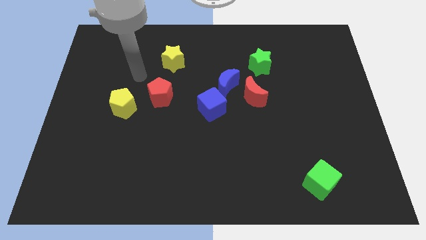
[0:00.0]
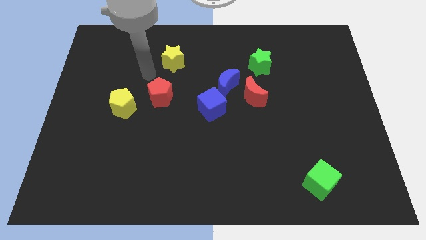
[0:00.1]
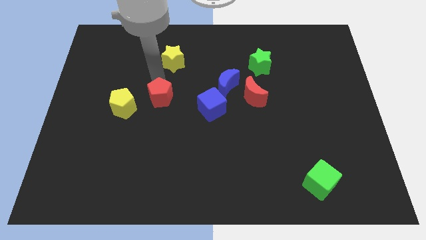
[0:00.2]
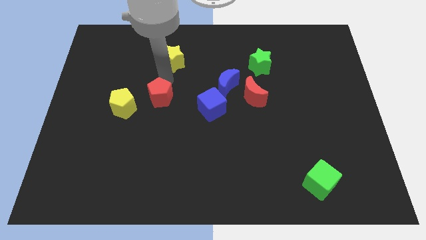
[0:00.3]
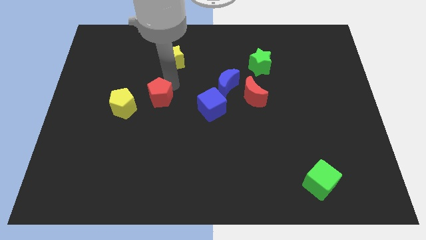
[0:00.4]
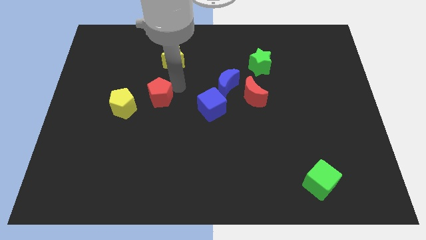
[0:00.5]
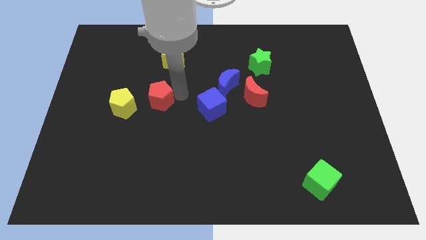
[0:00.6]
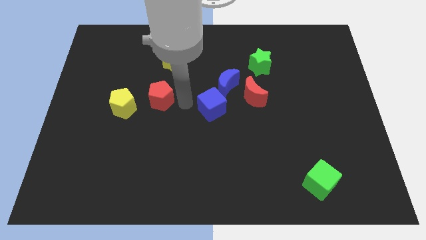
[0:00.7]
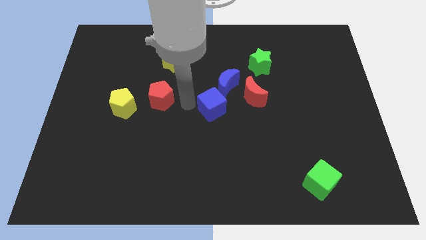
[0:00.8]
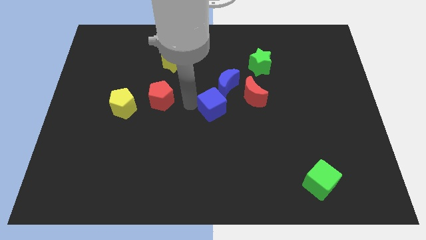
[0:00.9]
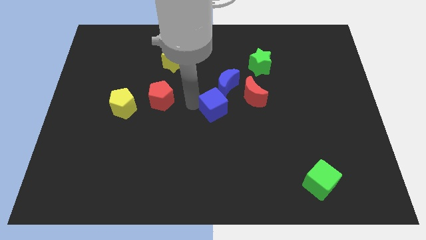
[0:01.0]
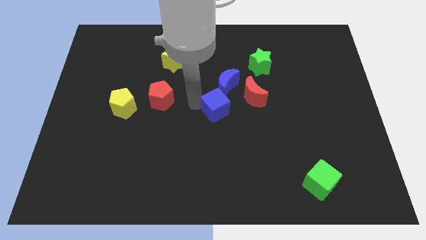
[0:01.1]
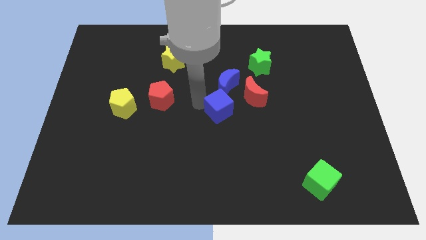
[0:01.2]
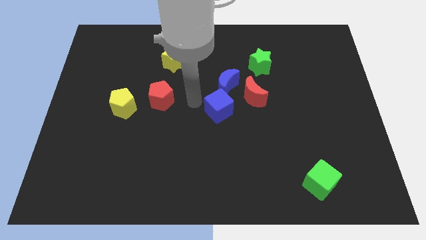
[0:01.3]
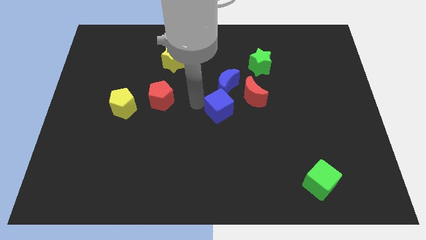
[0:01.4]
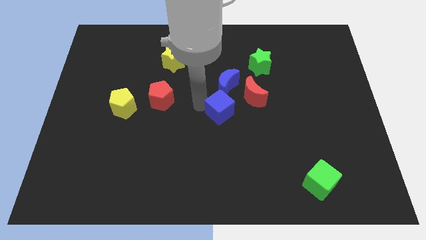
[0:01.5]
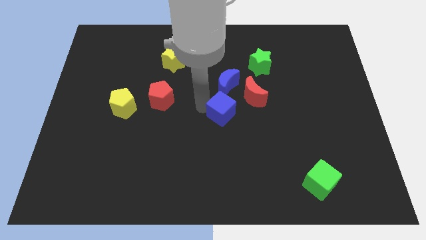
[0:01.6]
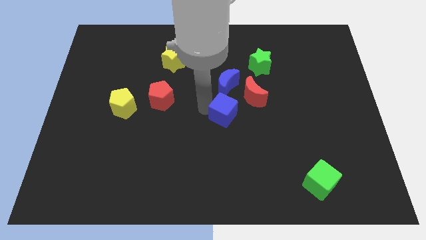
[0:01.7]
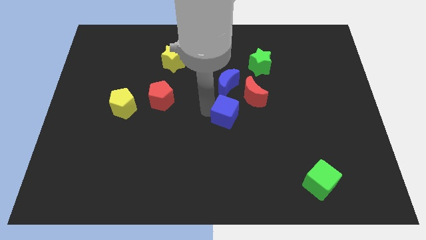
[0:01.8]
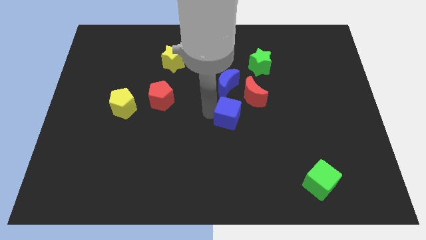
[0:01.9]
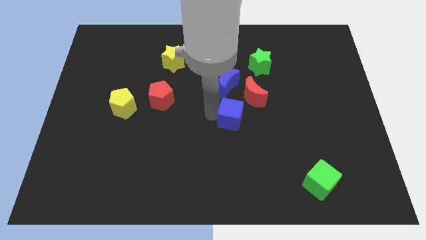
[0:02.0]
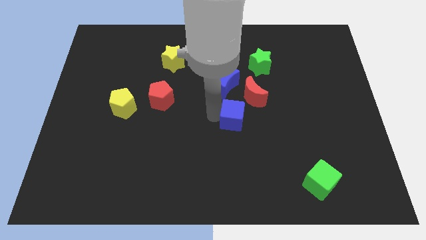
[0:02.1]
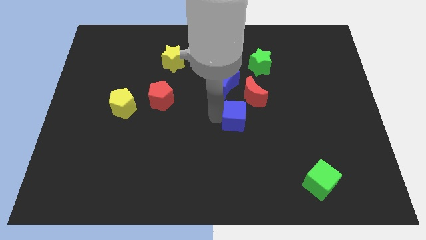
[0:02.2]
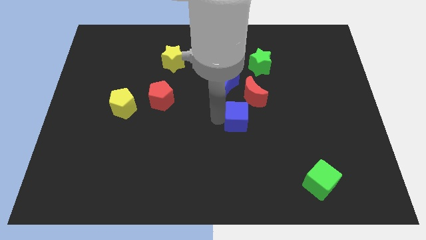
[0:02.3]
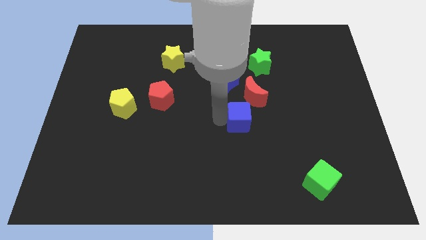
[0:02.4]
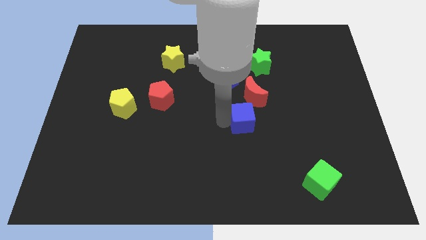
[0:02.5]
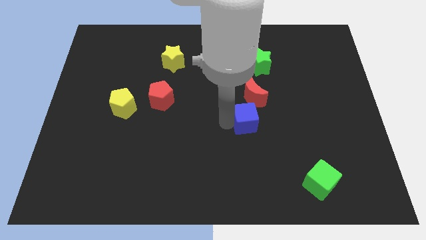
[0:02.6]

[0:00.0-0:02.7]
slightly push the blue cube right

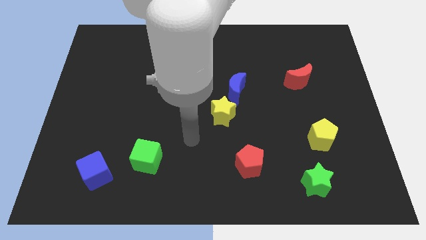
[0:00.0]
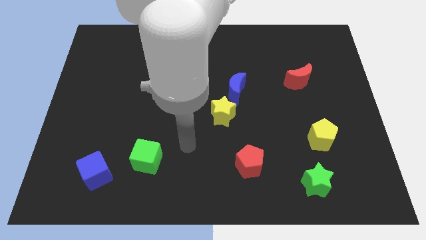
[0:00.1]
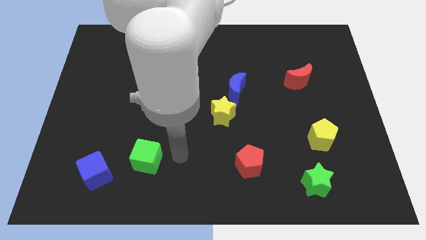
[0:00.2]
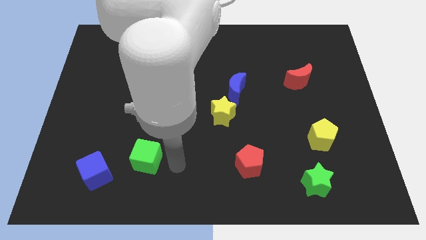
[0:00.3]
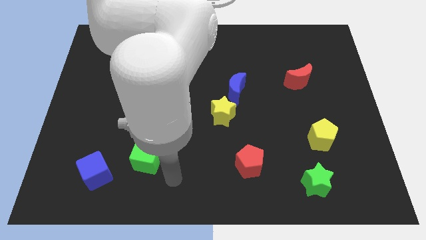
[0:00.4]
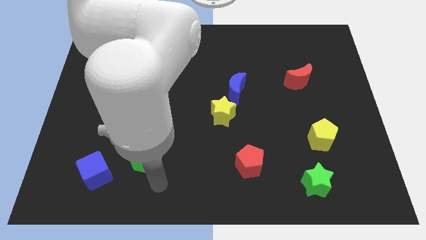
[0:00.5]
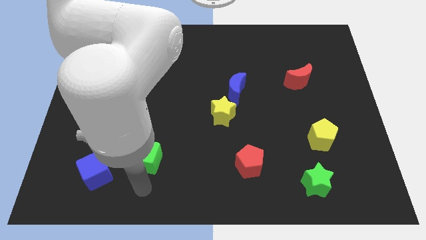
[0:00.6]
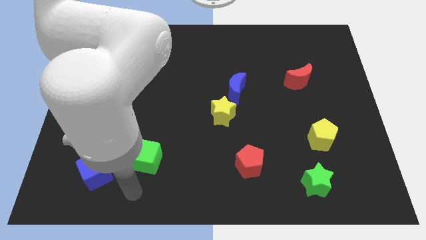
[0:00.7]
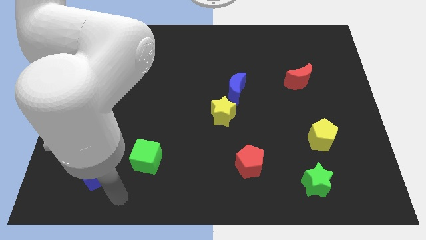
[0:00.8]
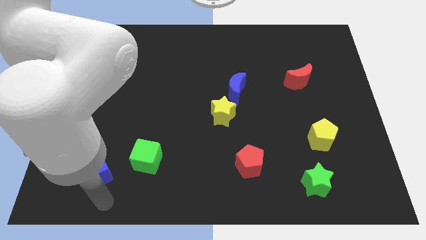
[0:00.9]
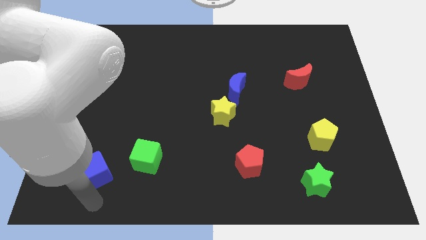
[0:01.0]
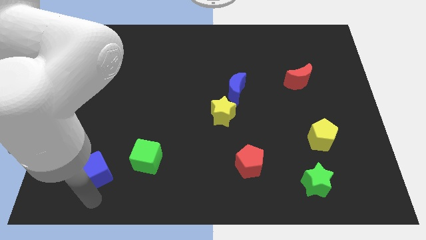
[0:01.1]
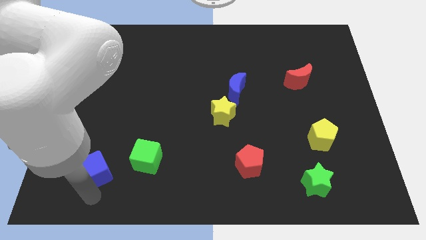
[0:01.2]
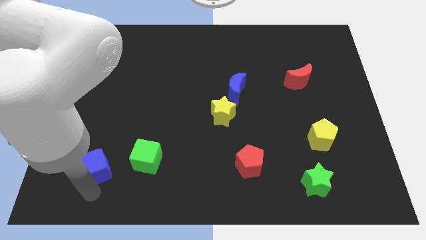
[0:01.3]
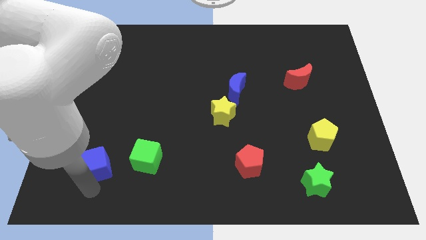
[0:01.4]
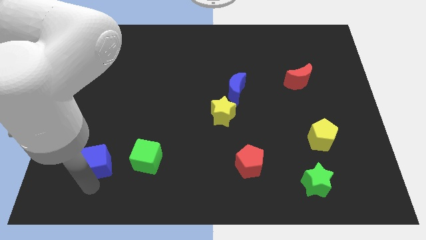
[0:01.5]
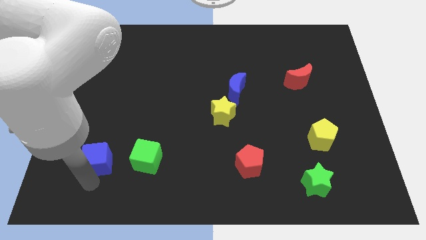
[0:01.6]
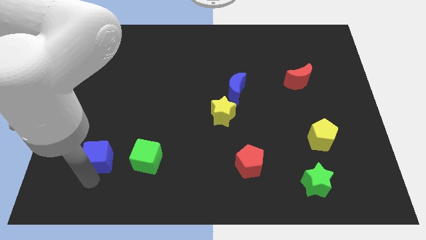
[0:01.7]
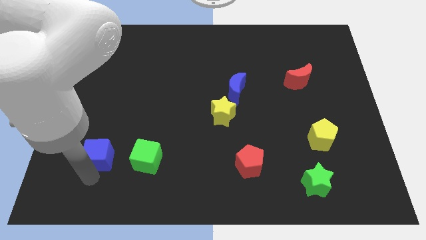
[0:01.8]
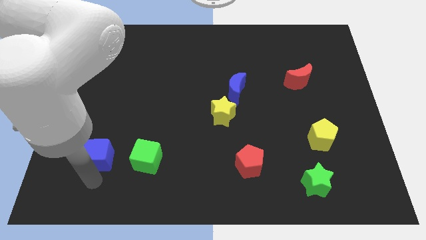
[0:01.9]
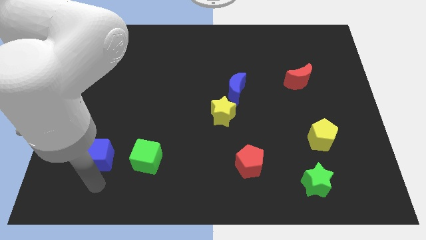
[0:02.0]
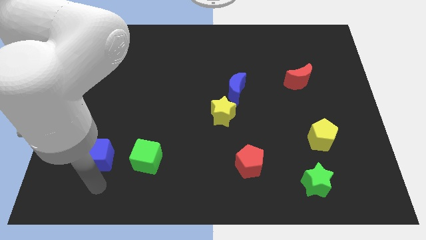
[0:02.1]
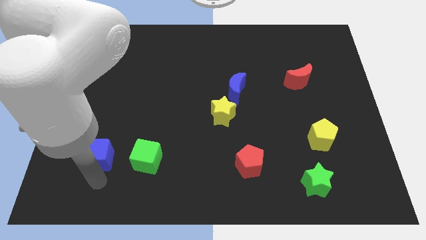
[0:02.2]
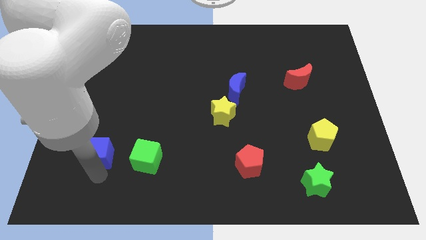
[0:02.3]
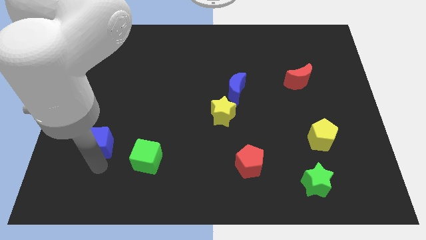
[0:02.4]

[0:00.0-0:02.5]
move the blue cube a little bit upwards

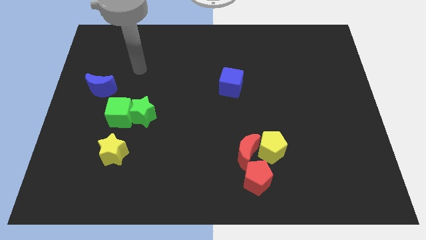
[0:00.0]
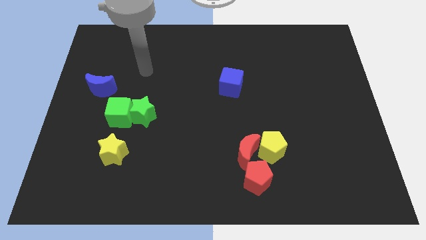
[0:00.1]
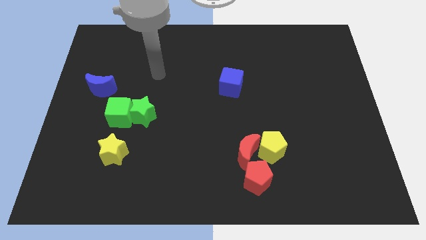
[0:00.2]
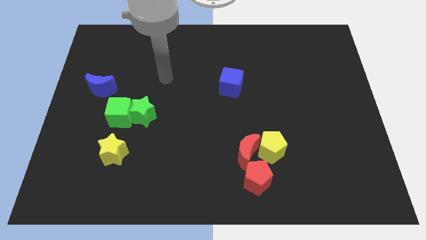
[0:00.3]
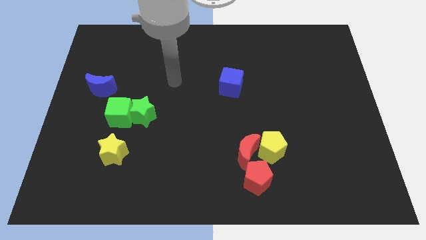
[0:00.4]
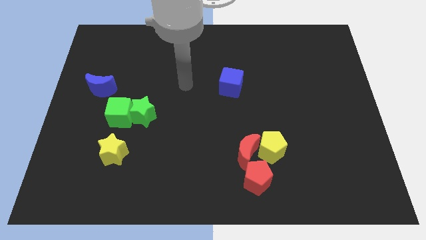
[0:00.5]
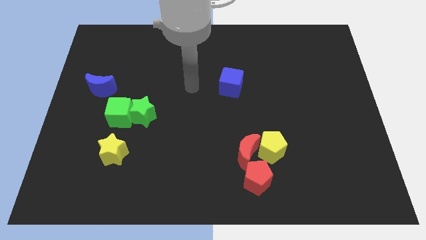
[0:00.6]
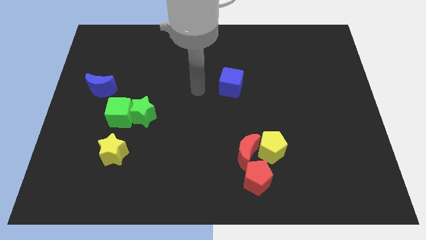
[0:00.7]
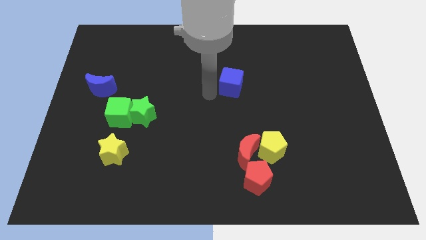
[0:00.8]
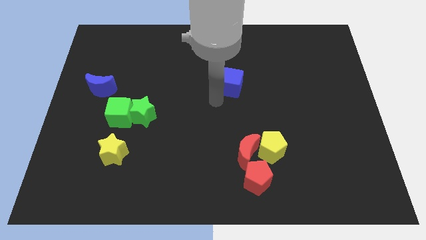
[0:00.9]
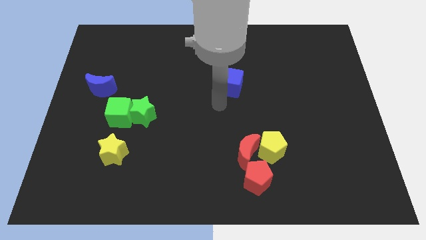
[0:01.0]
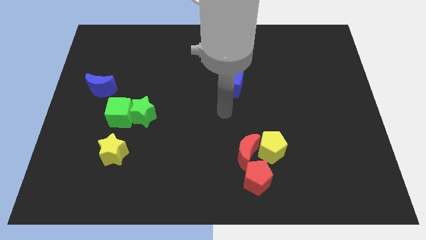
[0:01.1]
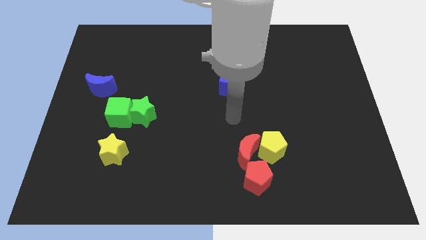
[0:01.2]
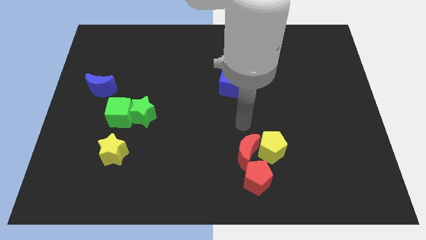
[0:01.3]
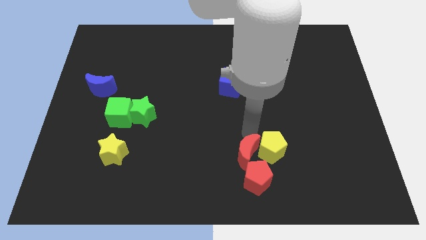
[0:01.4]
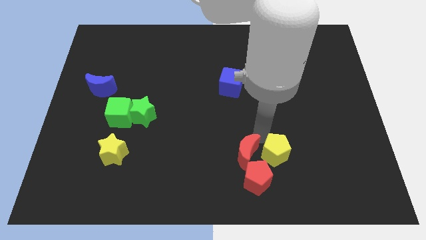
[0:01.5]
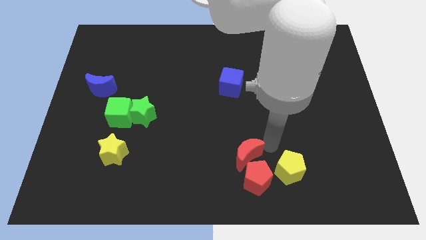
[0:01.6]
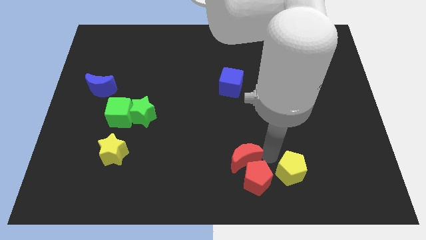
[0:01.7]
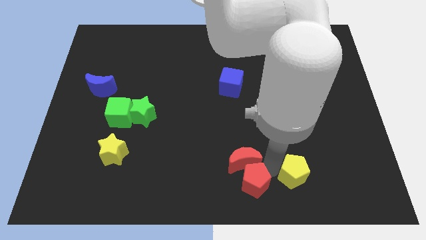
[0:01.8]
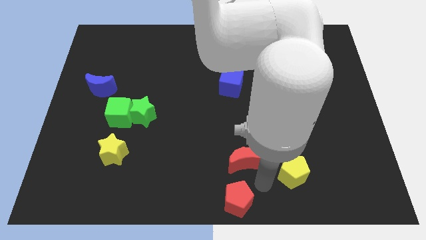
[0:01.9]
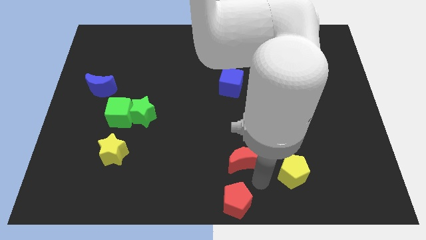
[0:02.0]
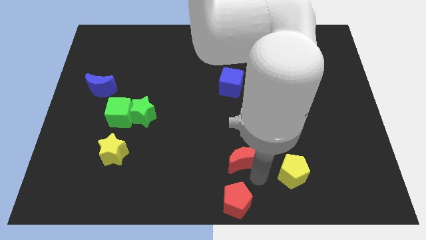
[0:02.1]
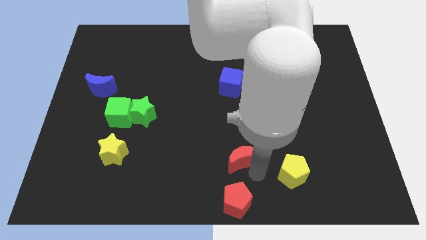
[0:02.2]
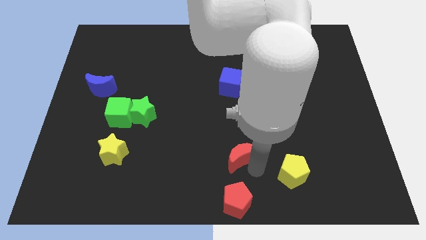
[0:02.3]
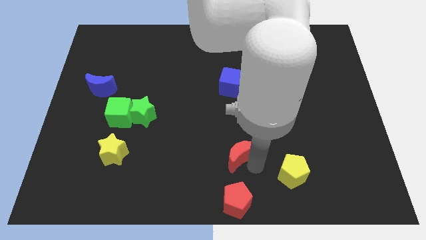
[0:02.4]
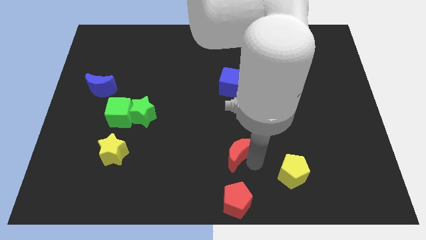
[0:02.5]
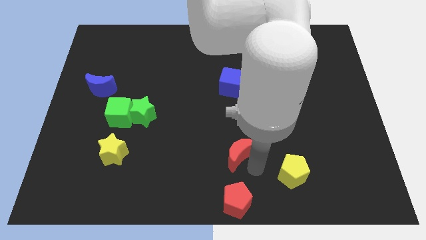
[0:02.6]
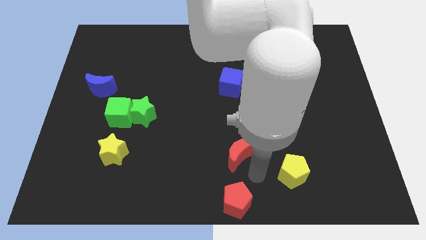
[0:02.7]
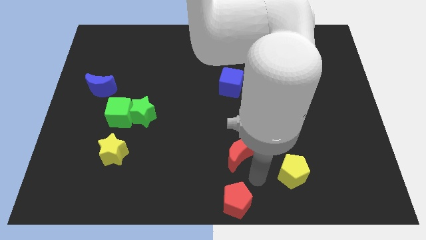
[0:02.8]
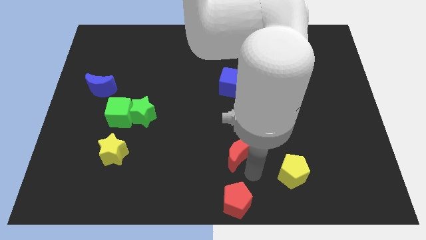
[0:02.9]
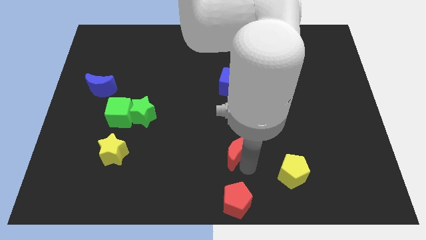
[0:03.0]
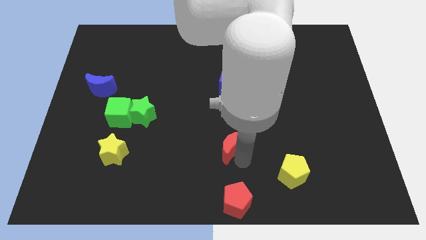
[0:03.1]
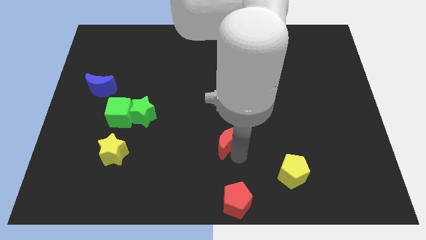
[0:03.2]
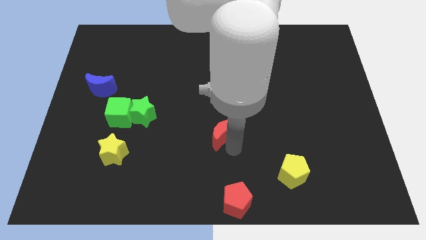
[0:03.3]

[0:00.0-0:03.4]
push the red moon upwards and then to the left a bit
